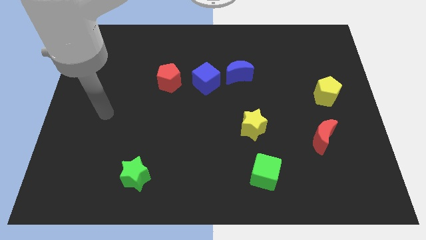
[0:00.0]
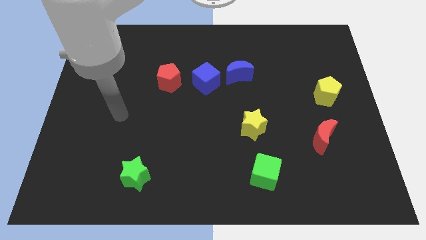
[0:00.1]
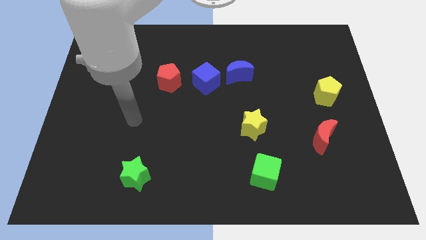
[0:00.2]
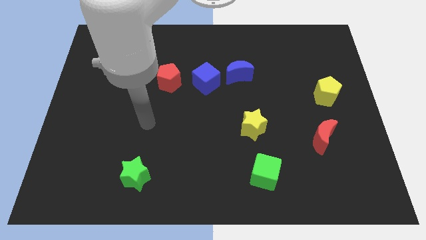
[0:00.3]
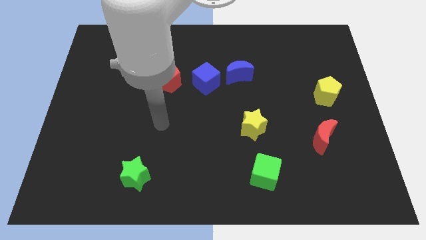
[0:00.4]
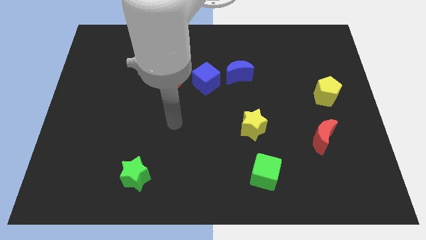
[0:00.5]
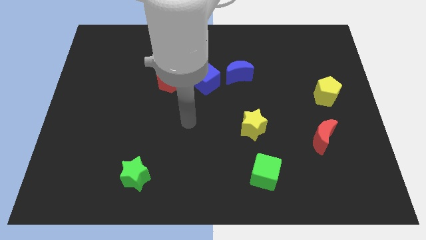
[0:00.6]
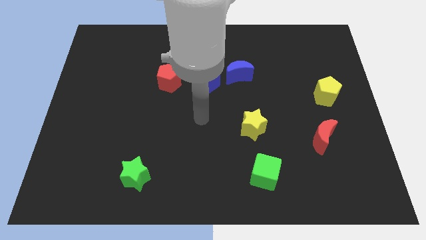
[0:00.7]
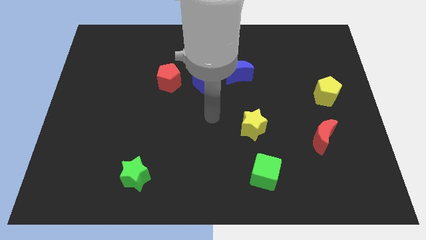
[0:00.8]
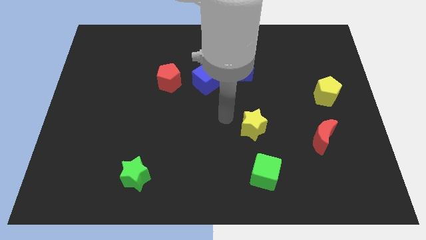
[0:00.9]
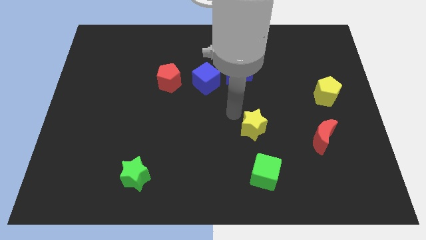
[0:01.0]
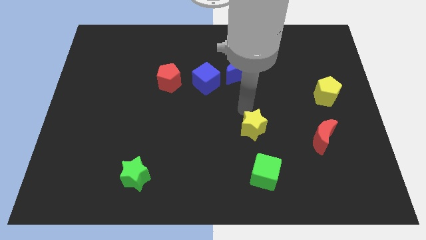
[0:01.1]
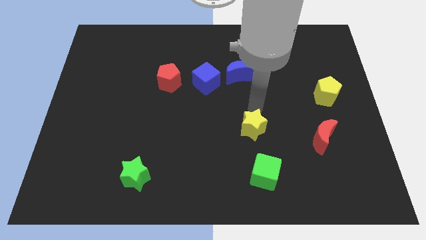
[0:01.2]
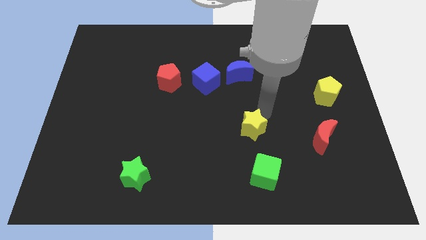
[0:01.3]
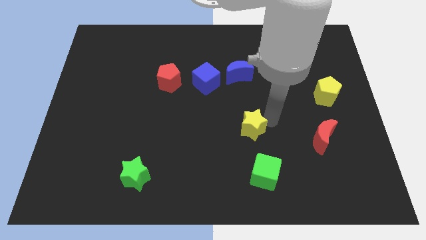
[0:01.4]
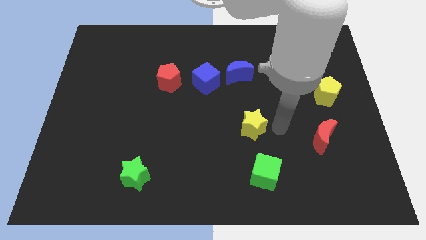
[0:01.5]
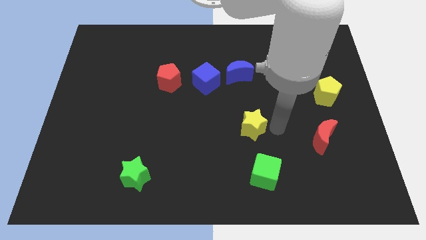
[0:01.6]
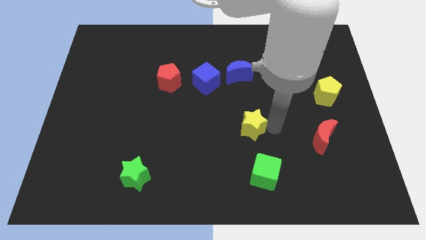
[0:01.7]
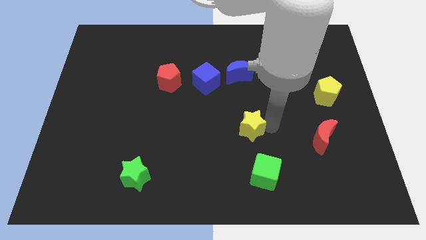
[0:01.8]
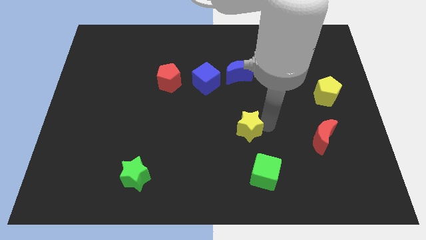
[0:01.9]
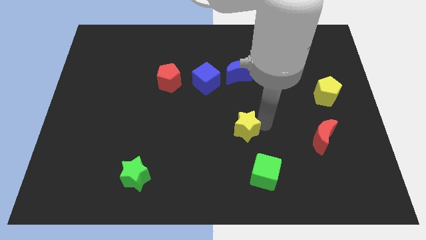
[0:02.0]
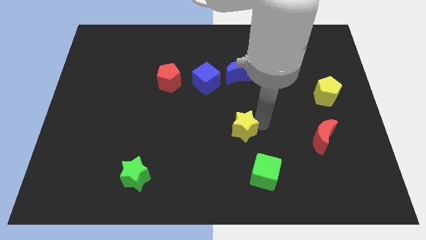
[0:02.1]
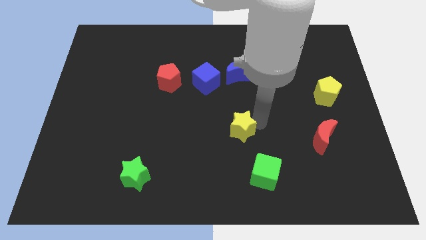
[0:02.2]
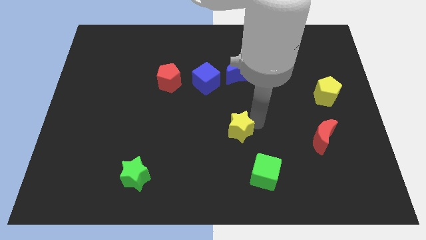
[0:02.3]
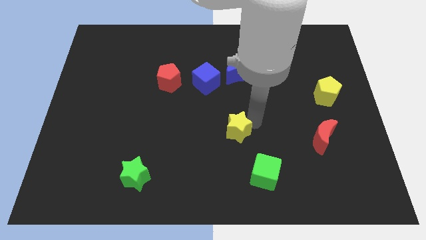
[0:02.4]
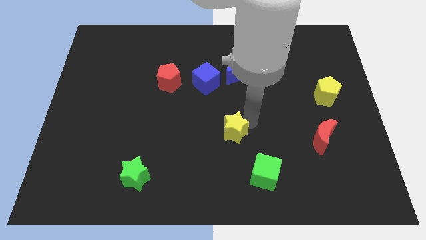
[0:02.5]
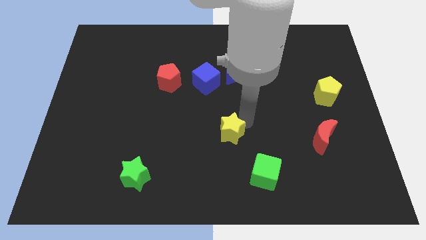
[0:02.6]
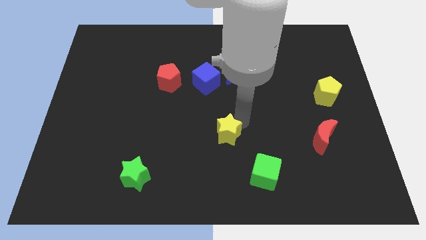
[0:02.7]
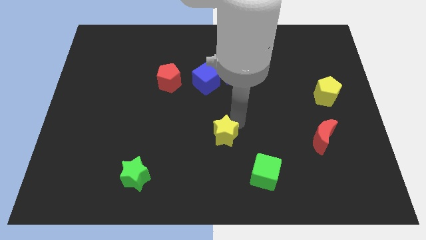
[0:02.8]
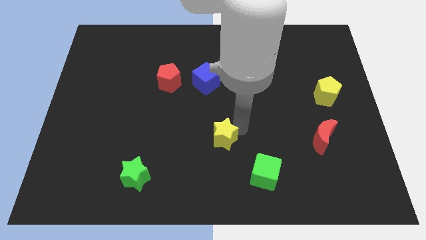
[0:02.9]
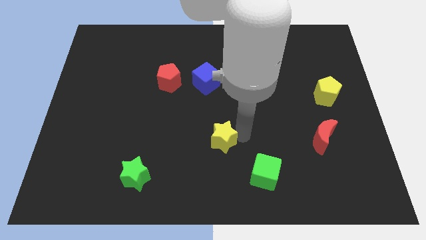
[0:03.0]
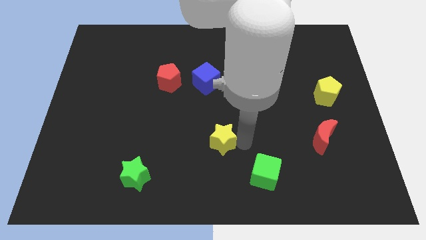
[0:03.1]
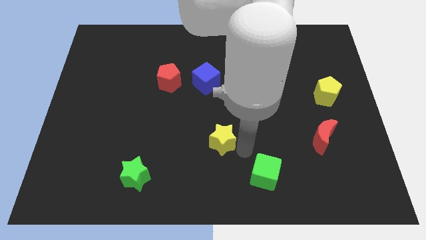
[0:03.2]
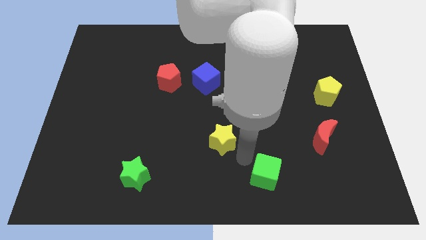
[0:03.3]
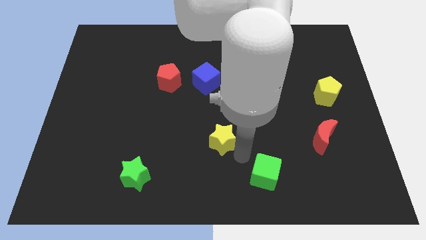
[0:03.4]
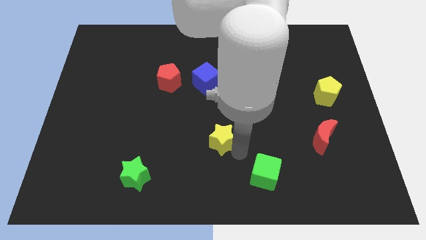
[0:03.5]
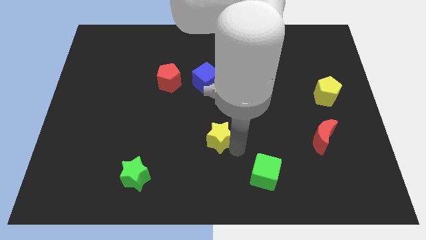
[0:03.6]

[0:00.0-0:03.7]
move the yellow star somewhat left

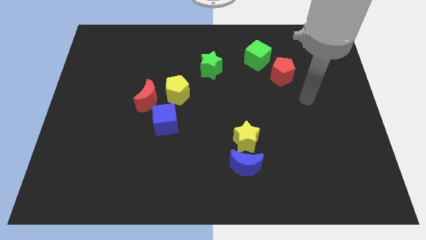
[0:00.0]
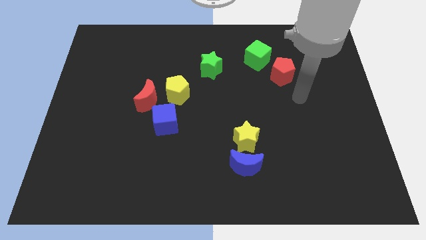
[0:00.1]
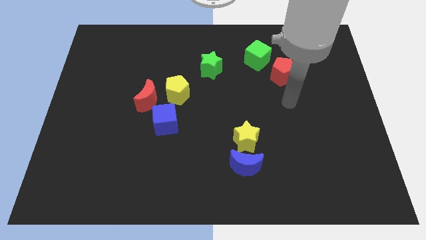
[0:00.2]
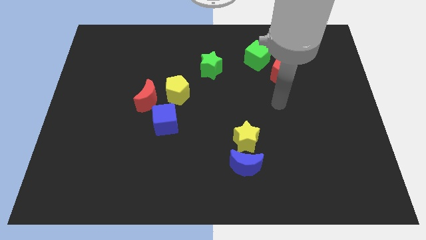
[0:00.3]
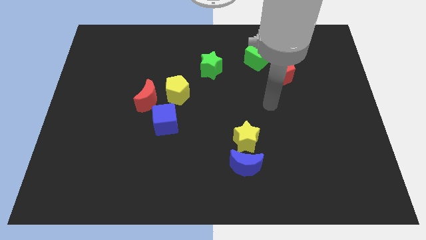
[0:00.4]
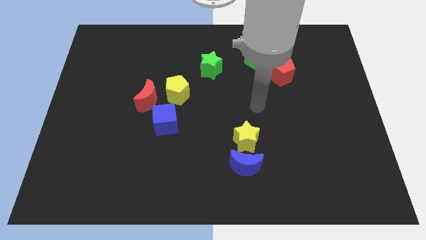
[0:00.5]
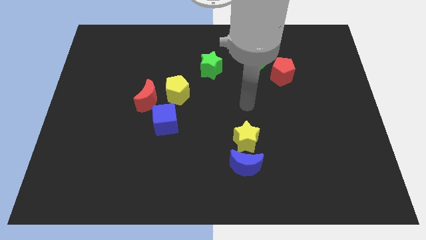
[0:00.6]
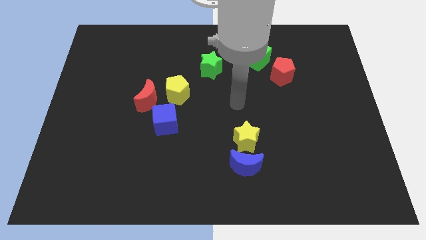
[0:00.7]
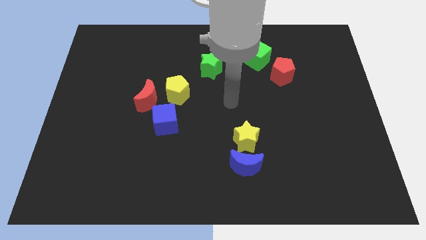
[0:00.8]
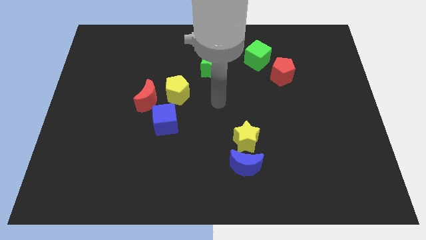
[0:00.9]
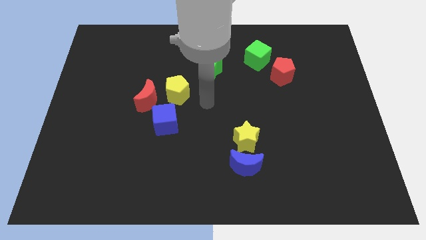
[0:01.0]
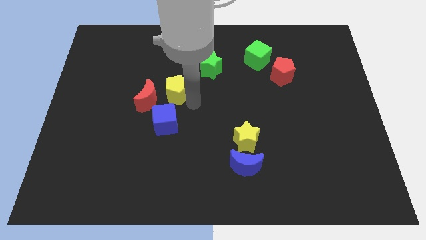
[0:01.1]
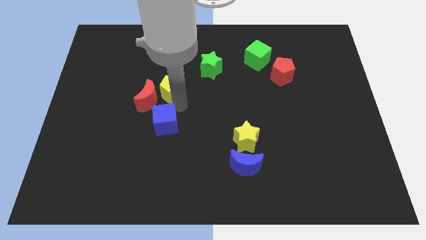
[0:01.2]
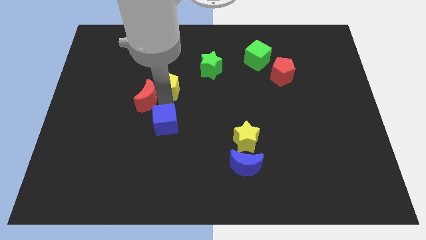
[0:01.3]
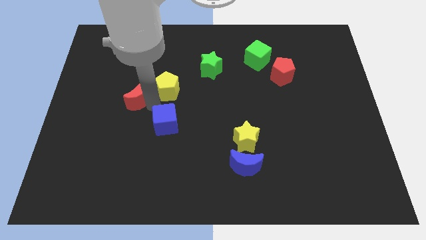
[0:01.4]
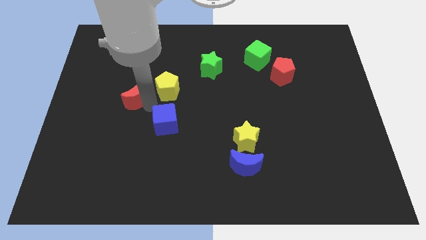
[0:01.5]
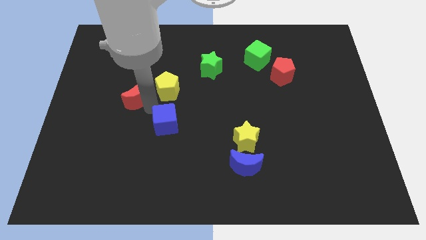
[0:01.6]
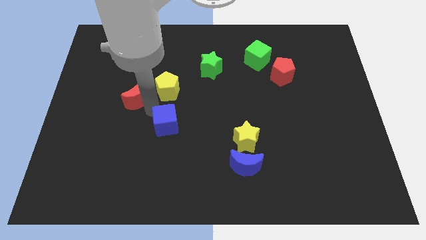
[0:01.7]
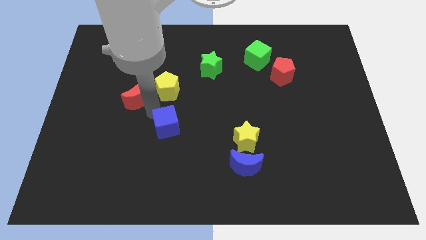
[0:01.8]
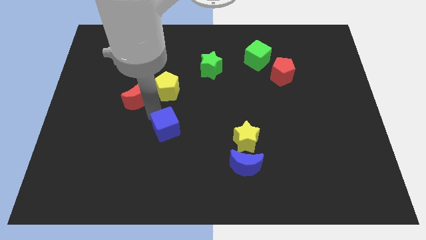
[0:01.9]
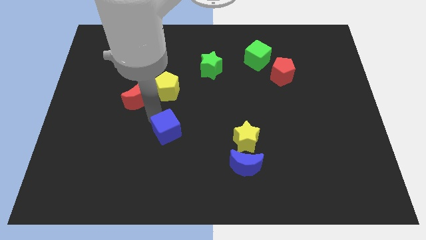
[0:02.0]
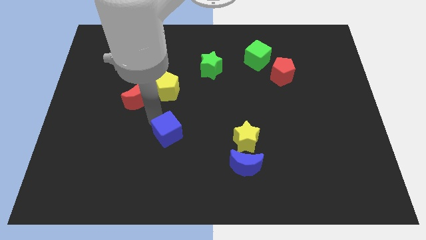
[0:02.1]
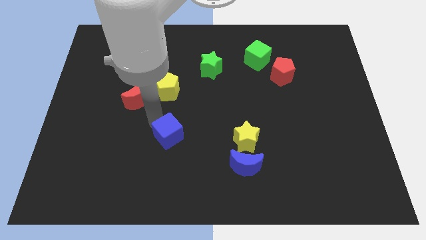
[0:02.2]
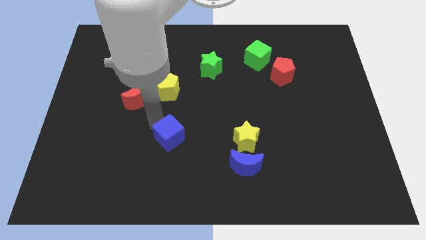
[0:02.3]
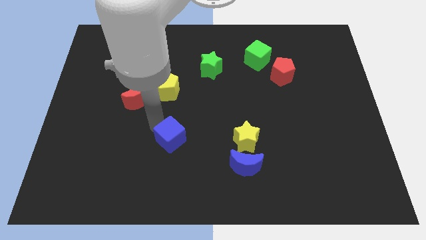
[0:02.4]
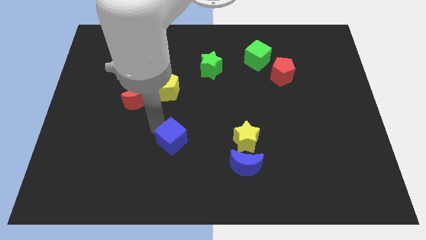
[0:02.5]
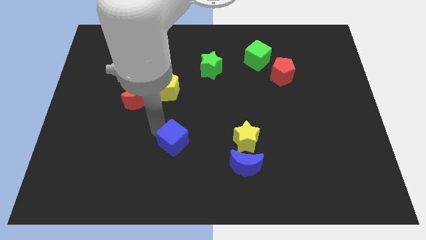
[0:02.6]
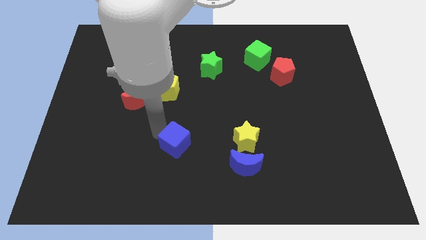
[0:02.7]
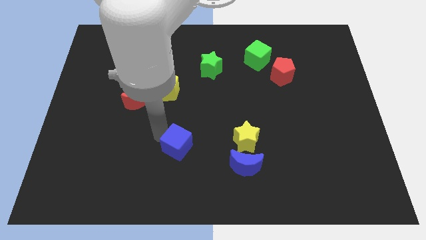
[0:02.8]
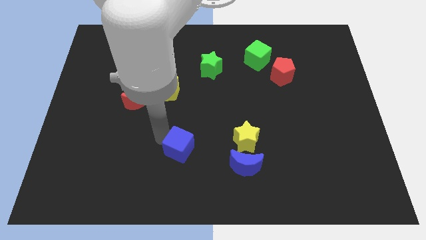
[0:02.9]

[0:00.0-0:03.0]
move the blue cube down and then right a bit

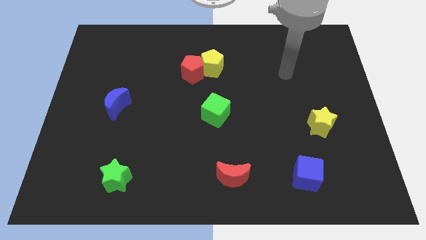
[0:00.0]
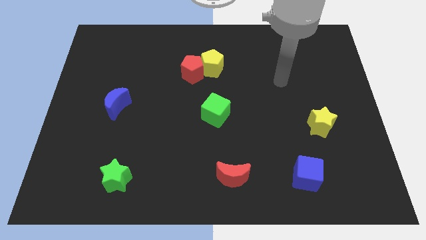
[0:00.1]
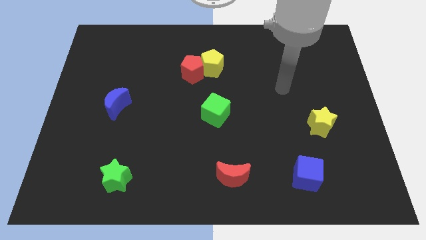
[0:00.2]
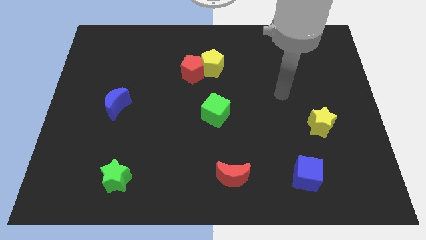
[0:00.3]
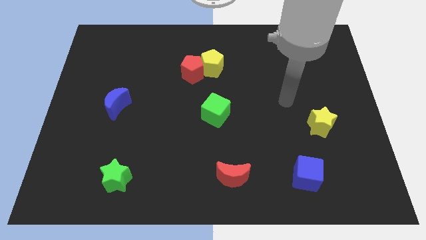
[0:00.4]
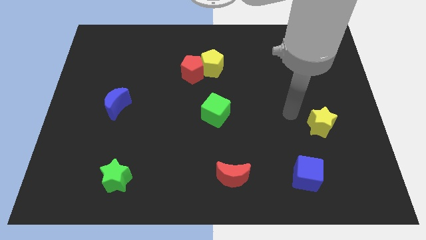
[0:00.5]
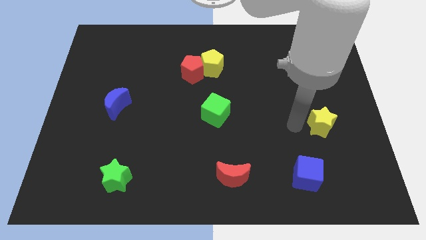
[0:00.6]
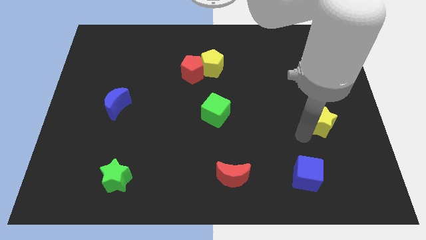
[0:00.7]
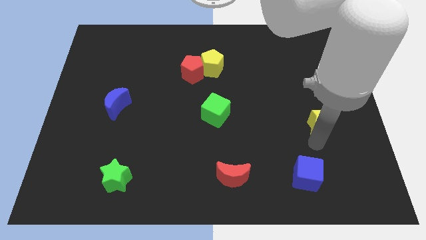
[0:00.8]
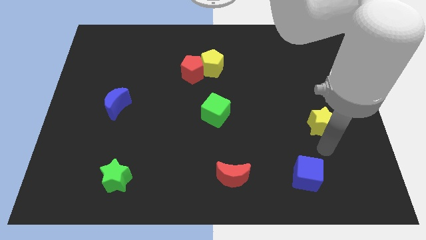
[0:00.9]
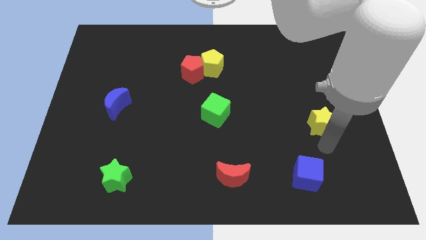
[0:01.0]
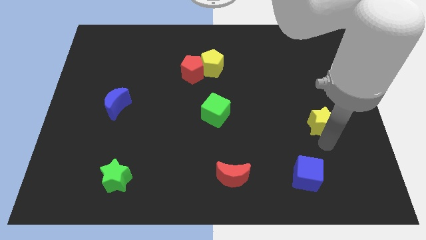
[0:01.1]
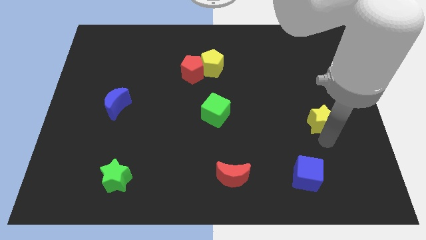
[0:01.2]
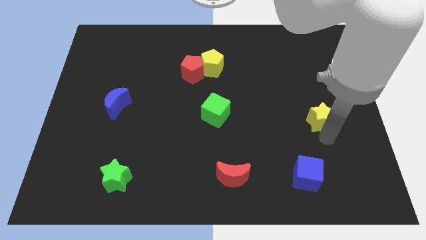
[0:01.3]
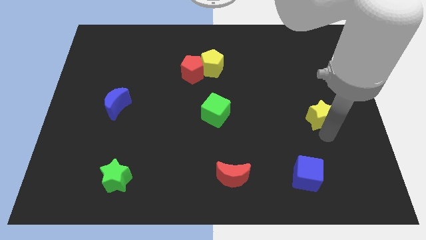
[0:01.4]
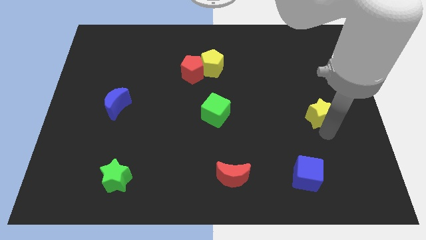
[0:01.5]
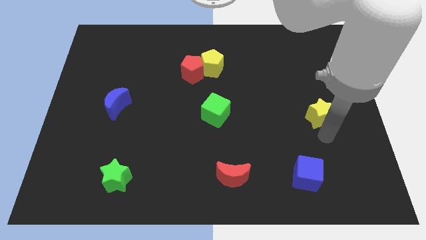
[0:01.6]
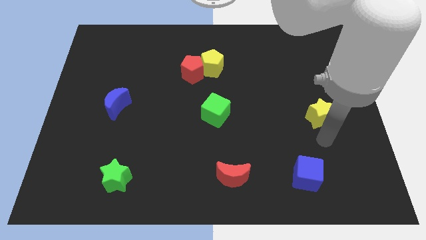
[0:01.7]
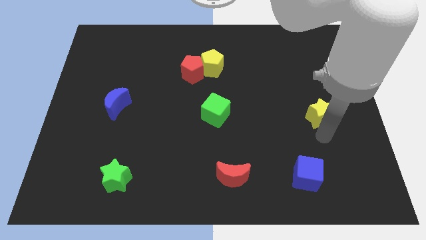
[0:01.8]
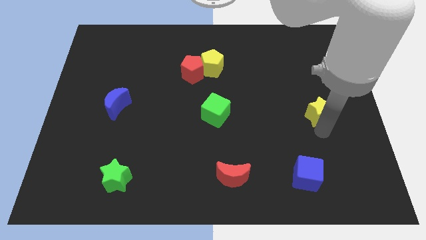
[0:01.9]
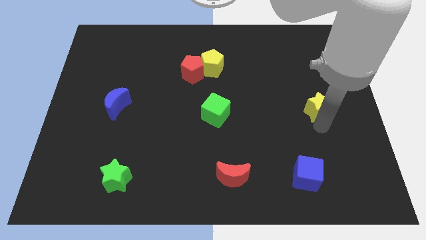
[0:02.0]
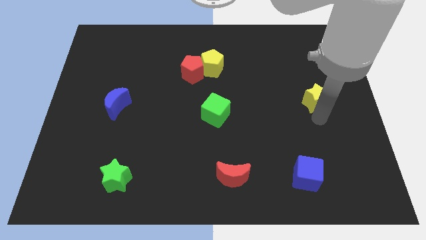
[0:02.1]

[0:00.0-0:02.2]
slide the yellow star up a little bit
